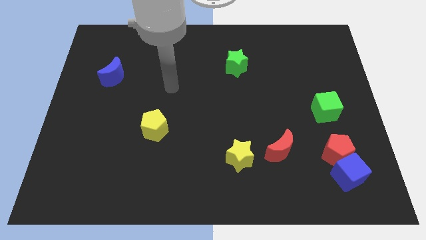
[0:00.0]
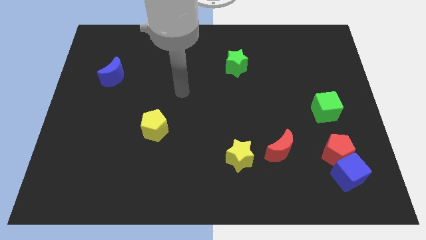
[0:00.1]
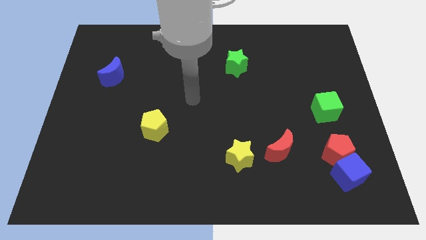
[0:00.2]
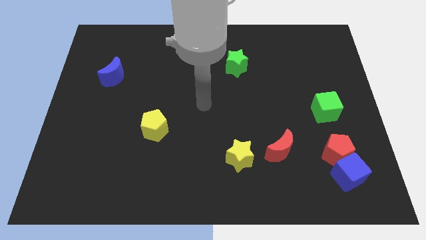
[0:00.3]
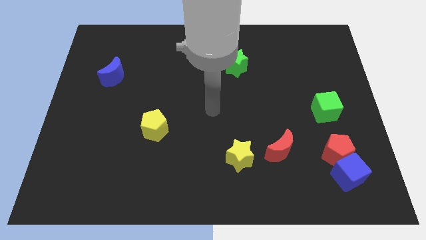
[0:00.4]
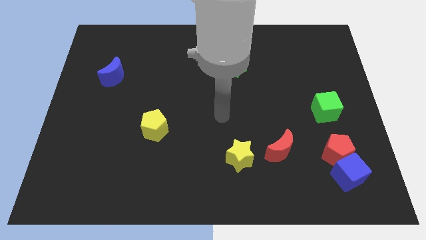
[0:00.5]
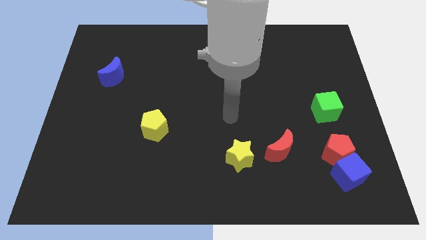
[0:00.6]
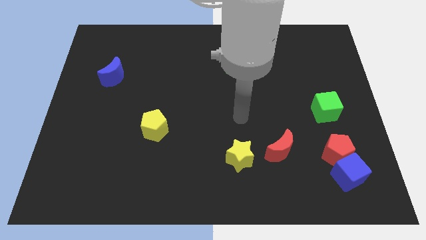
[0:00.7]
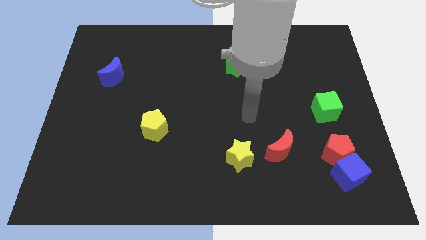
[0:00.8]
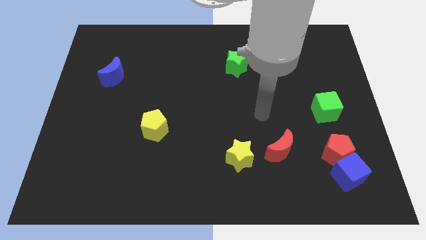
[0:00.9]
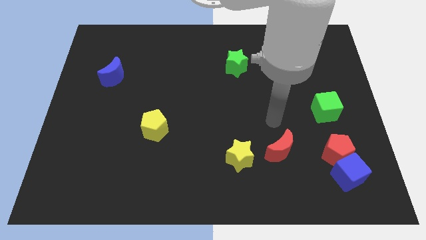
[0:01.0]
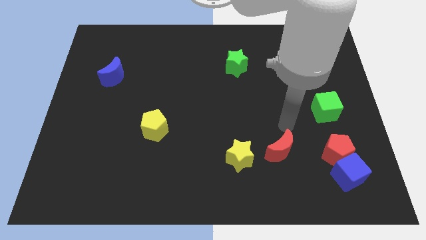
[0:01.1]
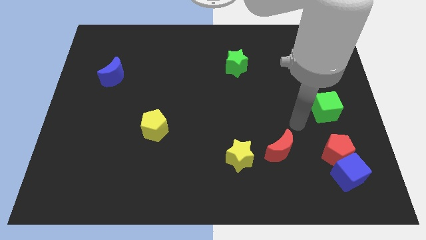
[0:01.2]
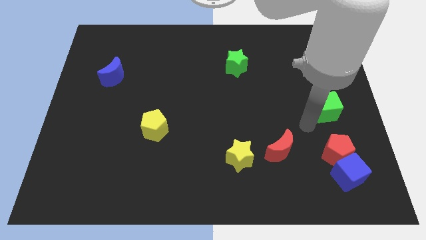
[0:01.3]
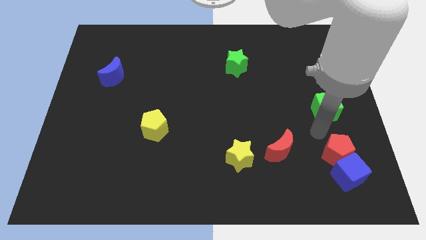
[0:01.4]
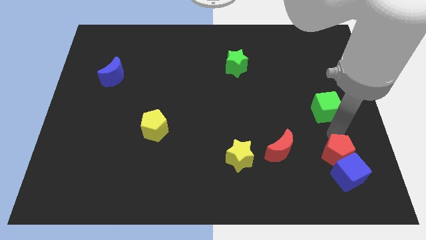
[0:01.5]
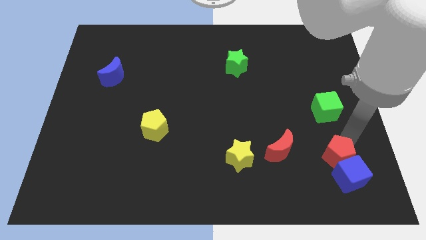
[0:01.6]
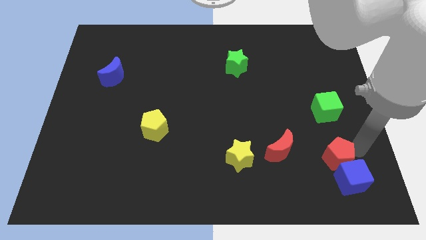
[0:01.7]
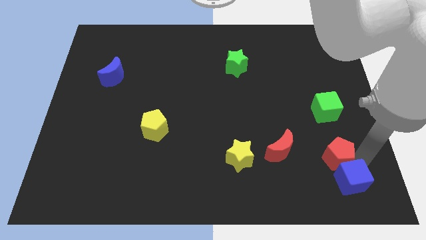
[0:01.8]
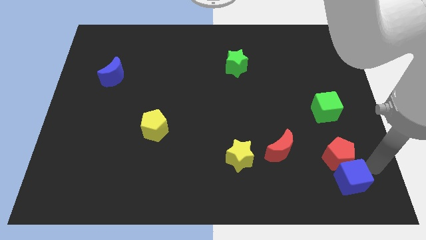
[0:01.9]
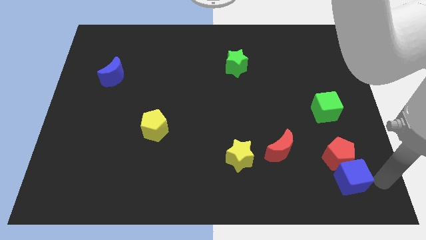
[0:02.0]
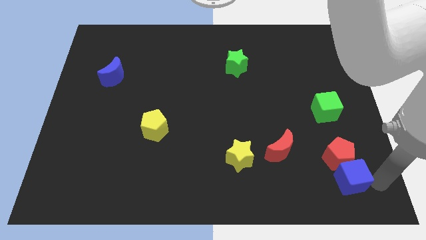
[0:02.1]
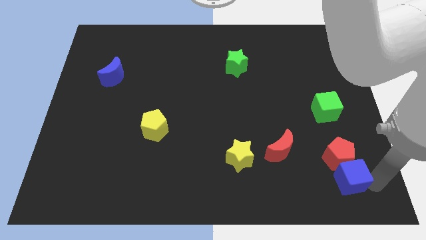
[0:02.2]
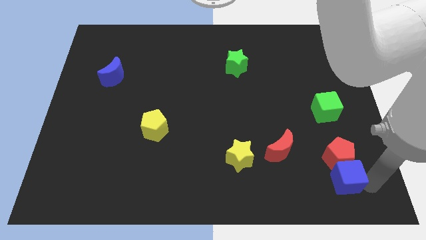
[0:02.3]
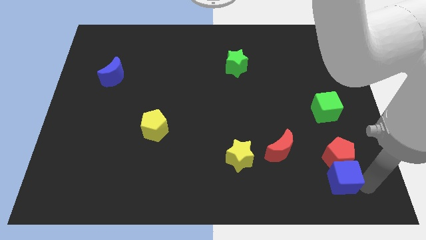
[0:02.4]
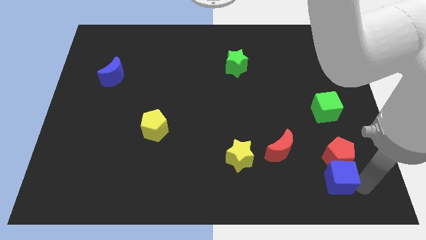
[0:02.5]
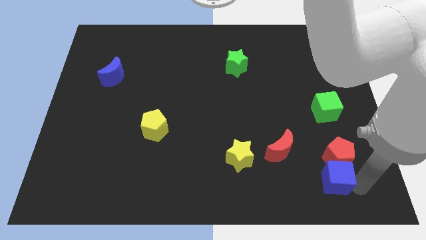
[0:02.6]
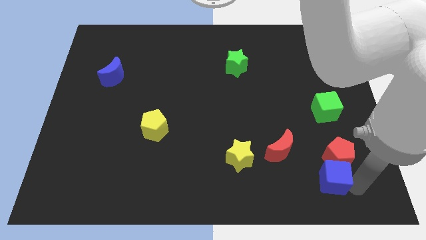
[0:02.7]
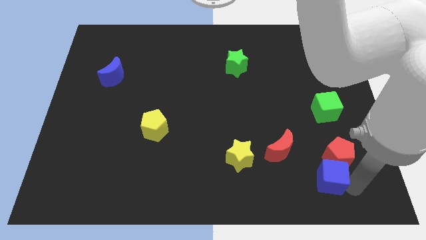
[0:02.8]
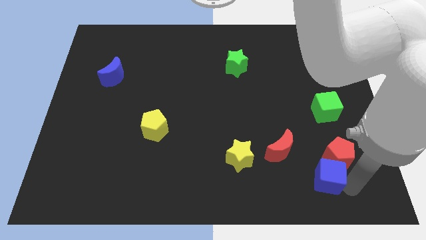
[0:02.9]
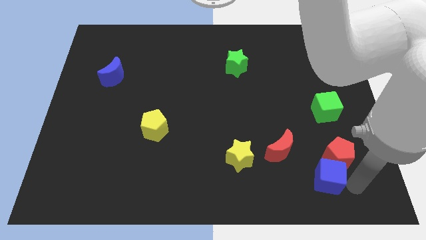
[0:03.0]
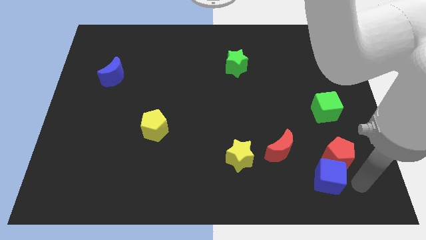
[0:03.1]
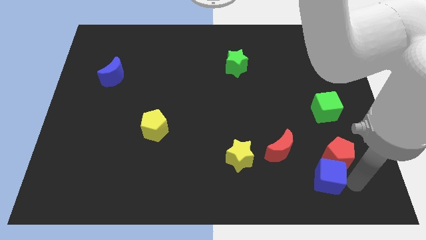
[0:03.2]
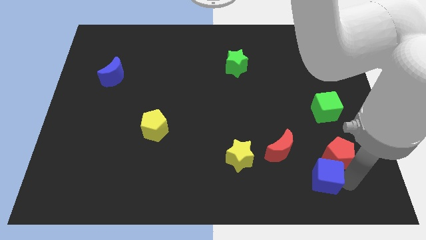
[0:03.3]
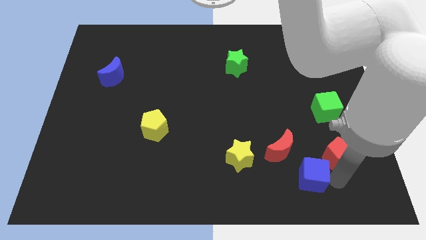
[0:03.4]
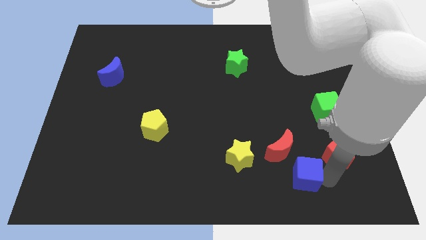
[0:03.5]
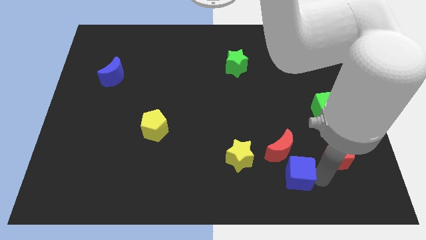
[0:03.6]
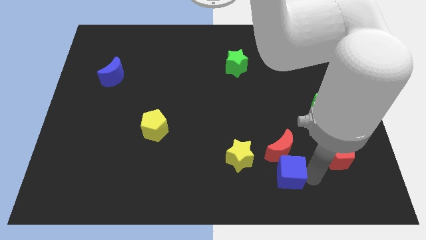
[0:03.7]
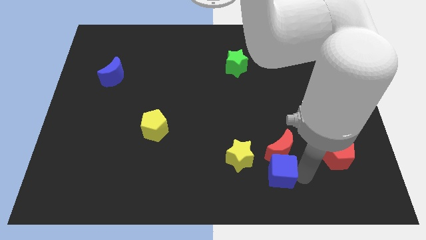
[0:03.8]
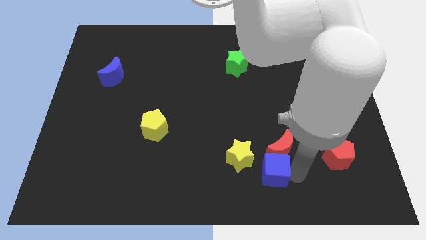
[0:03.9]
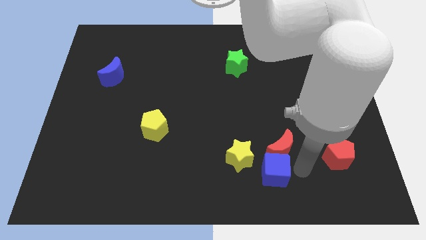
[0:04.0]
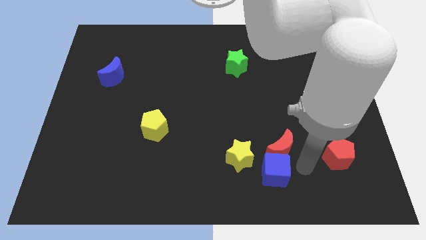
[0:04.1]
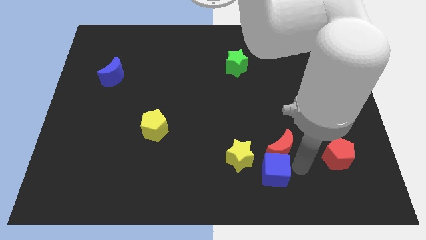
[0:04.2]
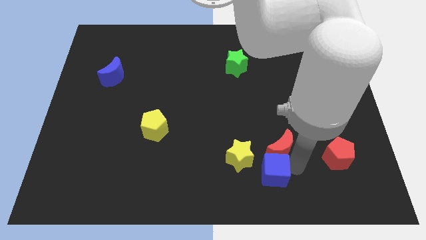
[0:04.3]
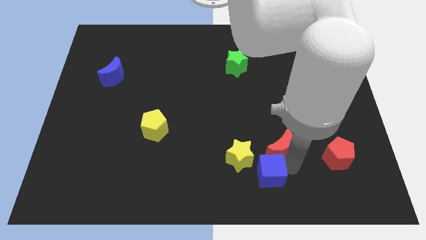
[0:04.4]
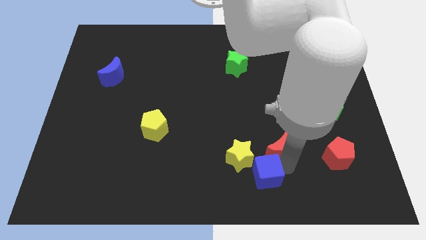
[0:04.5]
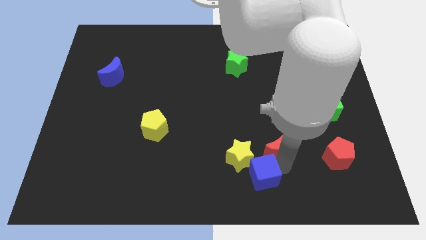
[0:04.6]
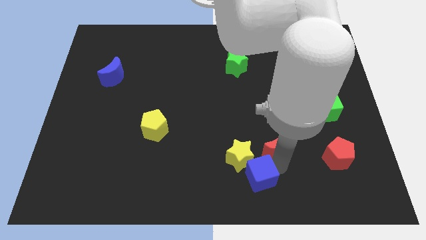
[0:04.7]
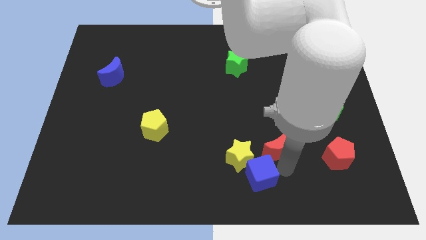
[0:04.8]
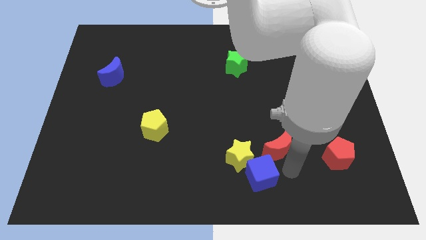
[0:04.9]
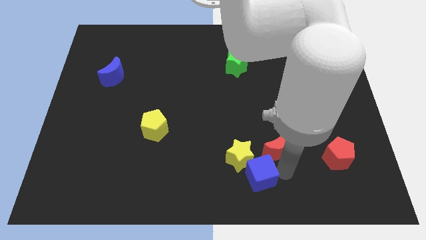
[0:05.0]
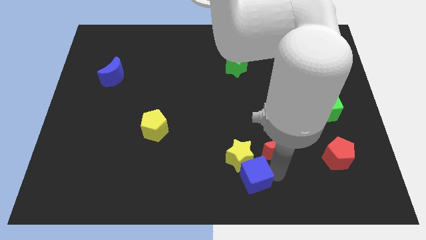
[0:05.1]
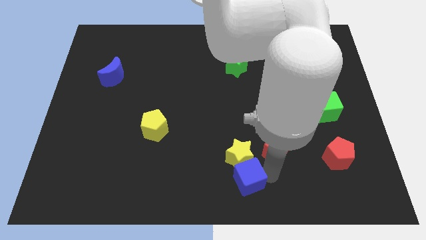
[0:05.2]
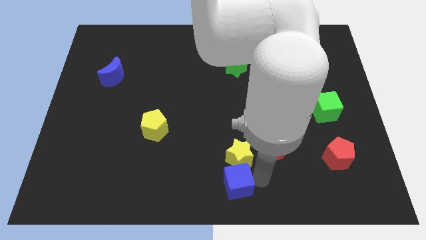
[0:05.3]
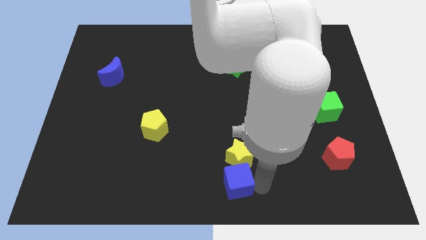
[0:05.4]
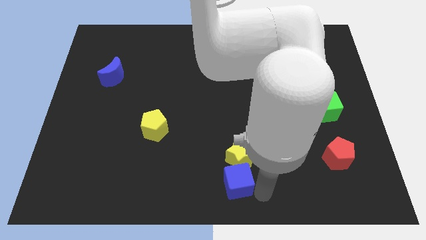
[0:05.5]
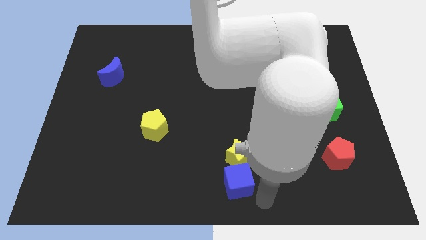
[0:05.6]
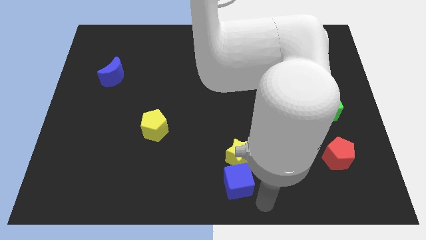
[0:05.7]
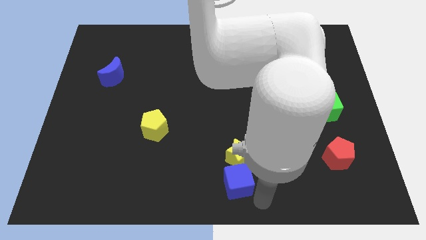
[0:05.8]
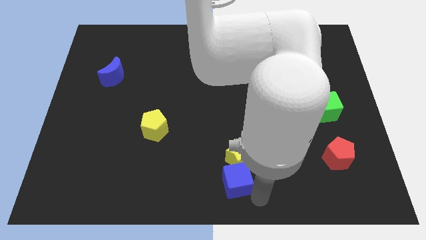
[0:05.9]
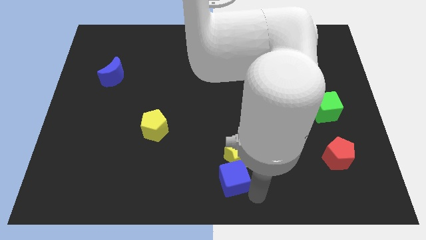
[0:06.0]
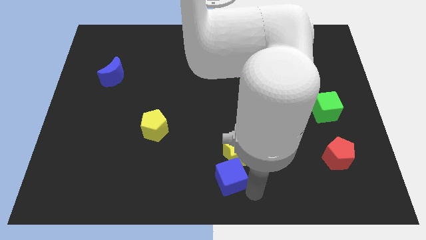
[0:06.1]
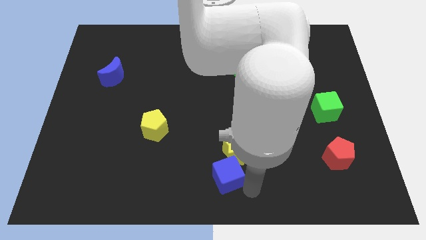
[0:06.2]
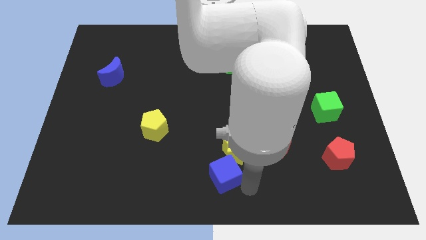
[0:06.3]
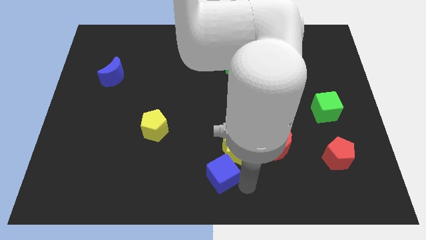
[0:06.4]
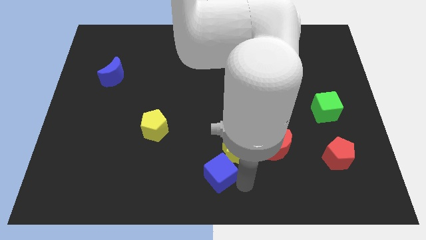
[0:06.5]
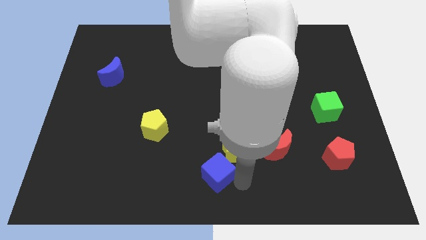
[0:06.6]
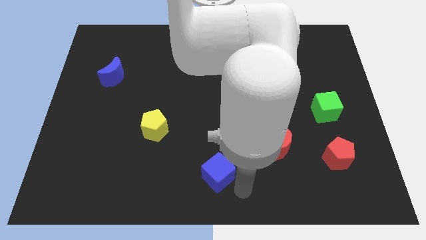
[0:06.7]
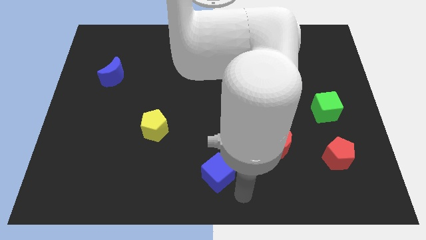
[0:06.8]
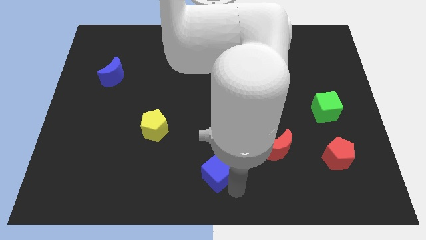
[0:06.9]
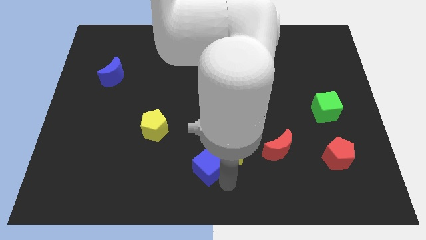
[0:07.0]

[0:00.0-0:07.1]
push the blue cube to the left of the yellow star

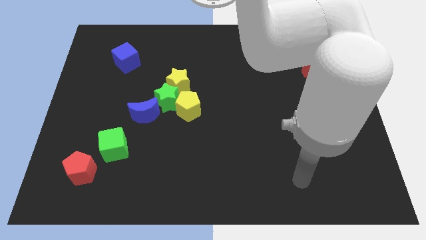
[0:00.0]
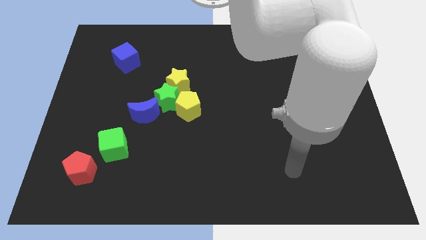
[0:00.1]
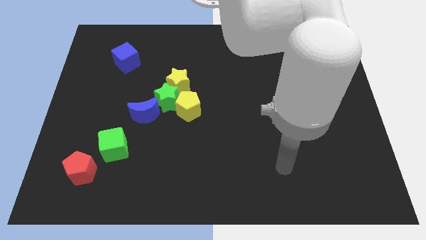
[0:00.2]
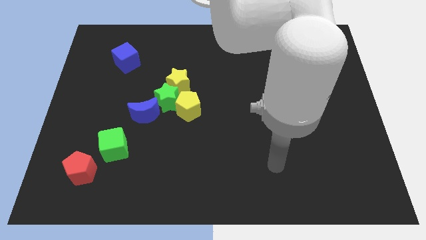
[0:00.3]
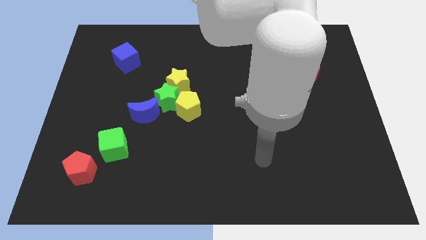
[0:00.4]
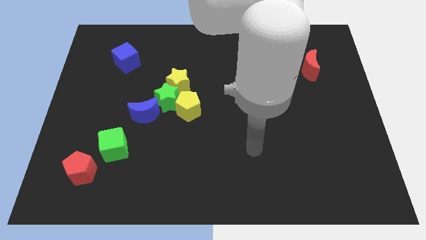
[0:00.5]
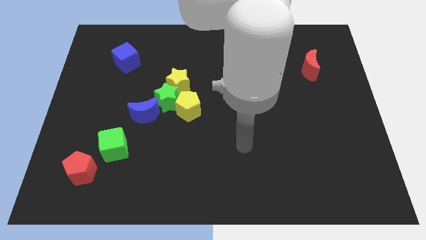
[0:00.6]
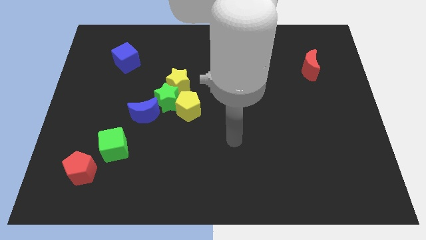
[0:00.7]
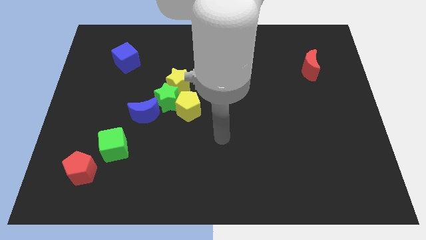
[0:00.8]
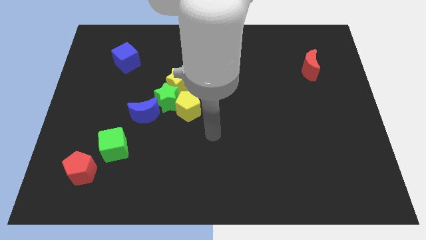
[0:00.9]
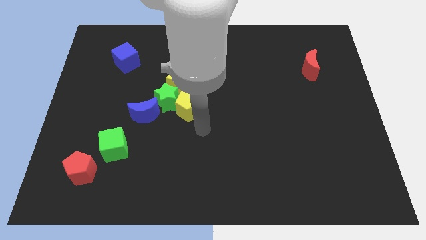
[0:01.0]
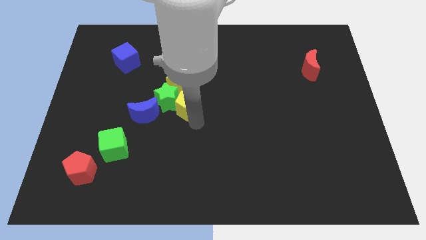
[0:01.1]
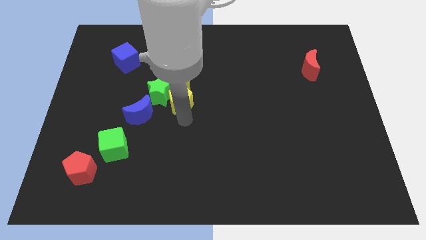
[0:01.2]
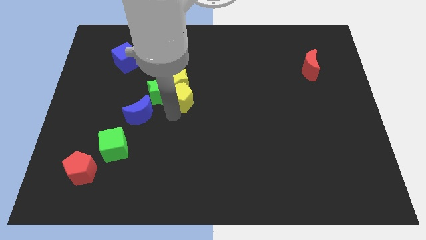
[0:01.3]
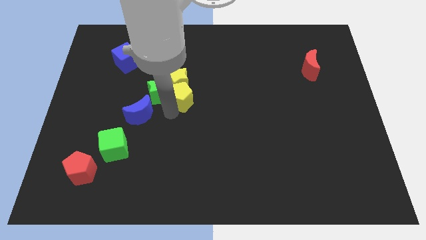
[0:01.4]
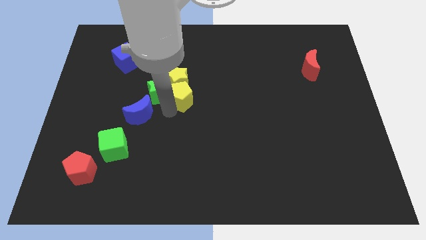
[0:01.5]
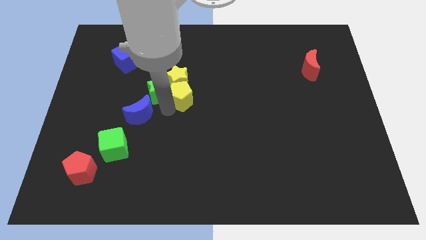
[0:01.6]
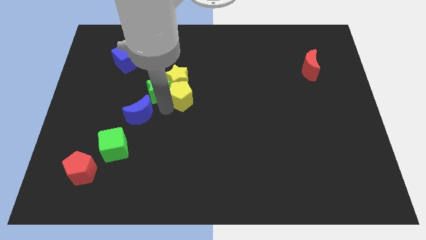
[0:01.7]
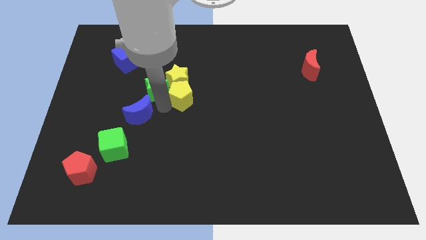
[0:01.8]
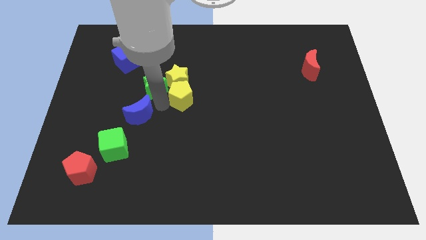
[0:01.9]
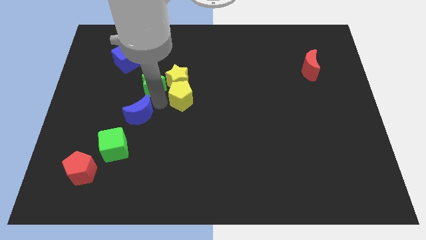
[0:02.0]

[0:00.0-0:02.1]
push the green star to the bottom right of the blue cube
